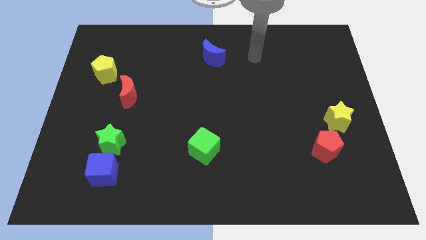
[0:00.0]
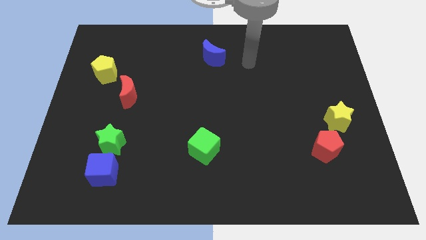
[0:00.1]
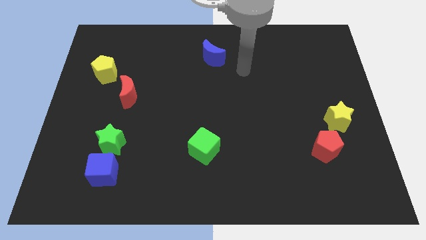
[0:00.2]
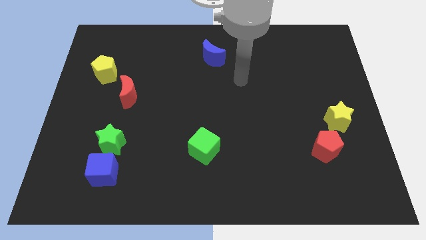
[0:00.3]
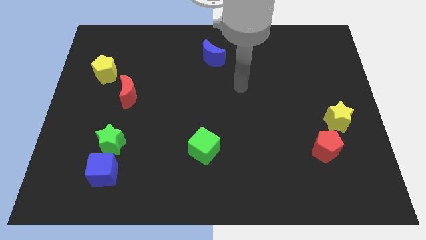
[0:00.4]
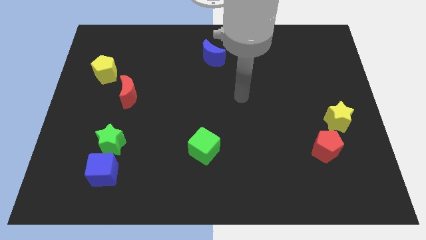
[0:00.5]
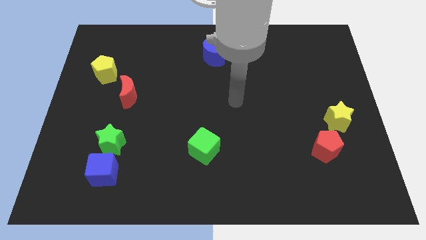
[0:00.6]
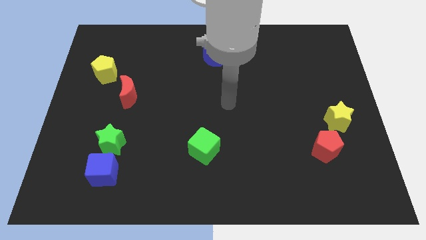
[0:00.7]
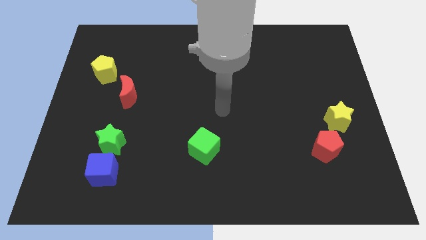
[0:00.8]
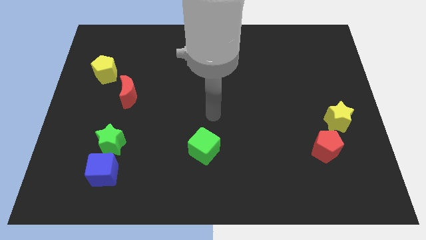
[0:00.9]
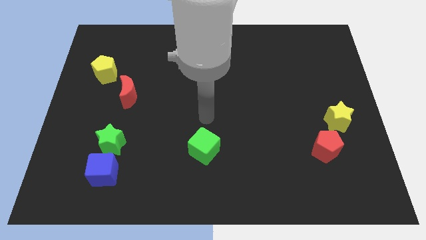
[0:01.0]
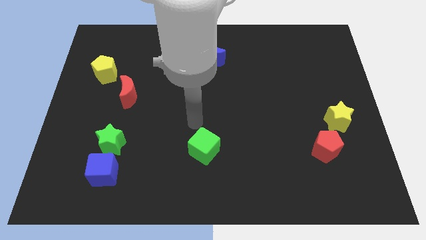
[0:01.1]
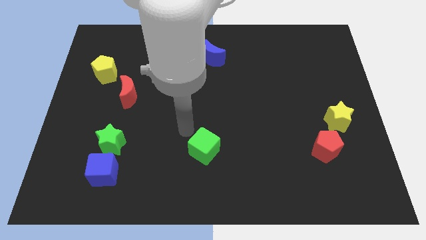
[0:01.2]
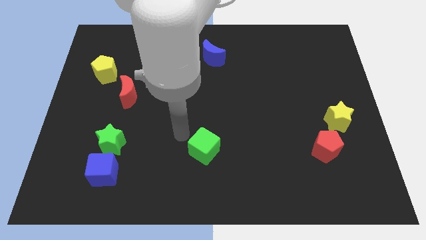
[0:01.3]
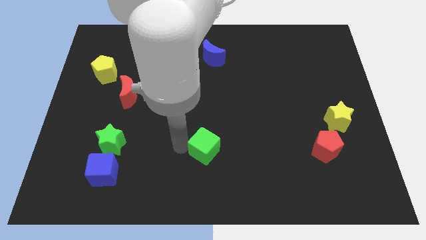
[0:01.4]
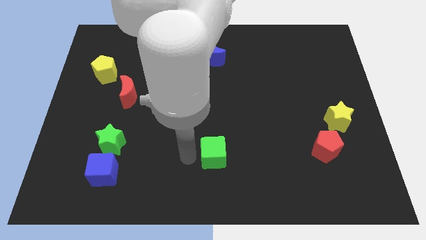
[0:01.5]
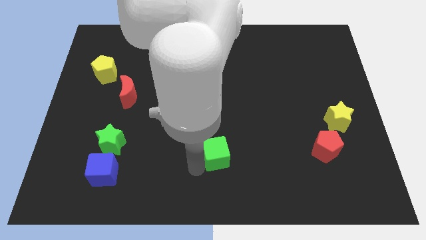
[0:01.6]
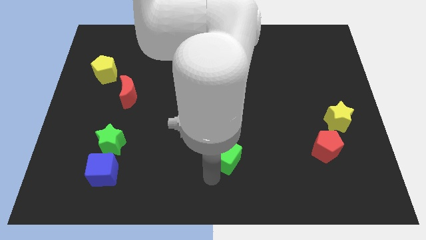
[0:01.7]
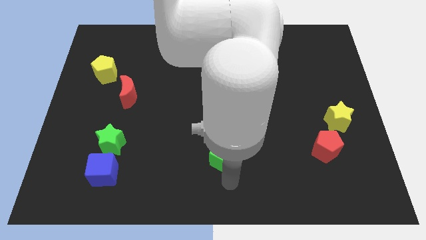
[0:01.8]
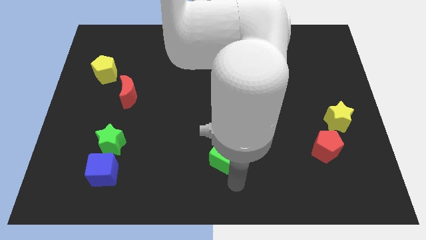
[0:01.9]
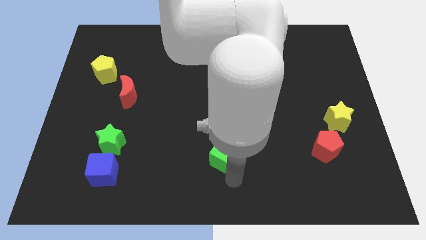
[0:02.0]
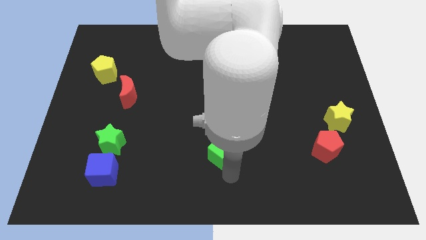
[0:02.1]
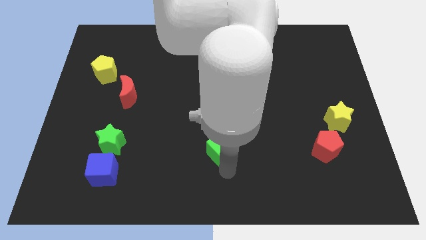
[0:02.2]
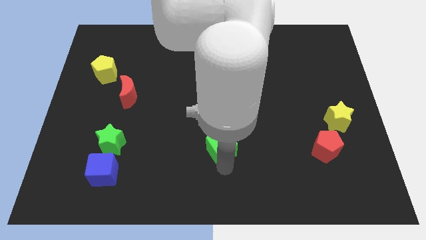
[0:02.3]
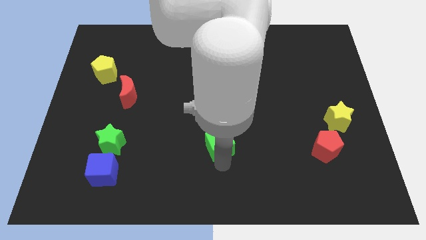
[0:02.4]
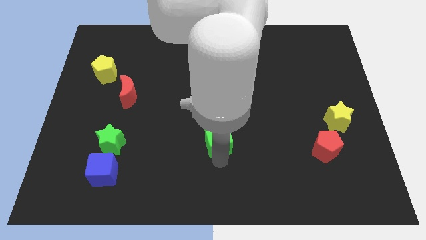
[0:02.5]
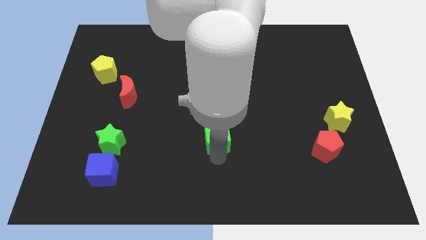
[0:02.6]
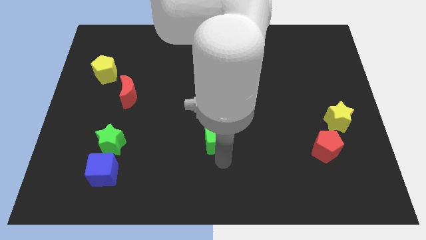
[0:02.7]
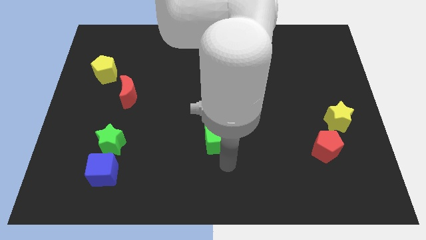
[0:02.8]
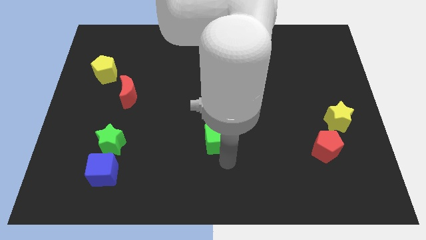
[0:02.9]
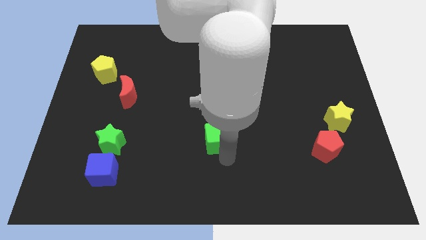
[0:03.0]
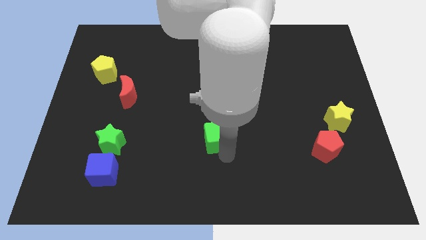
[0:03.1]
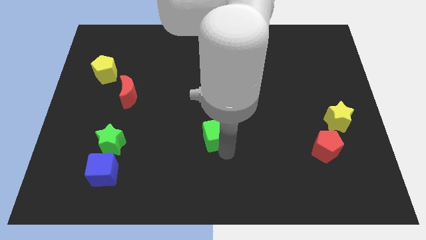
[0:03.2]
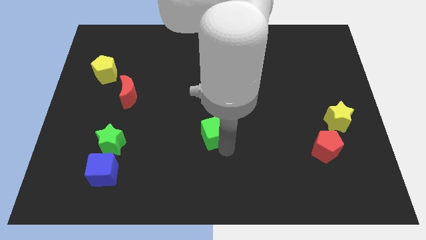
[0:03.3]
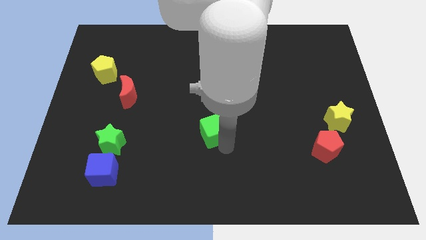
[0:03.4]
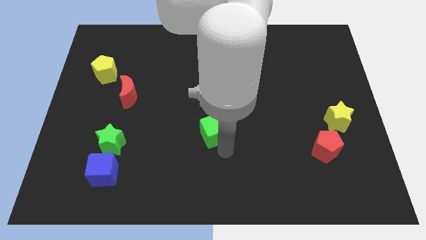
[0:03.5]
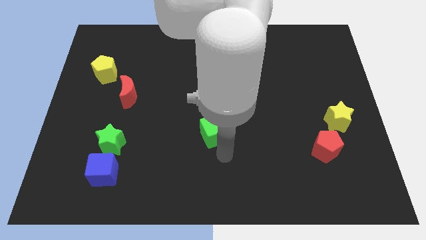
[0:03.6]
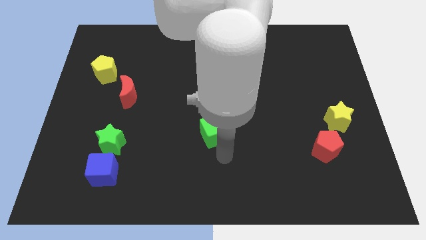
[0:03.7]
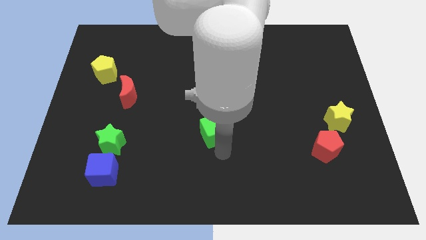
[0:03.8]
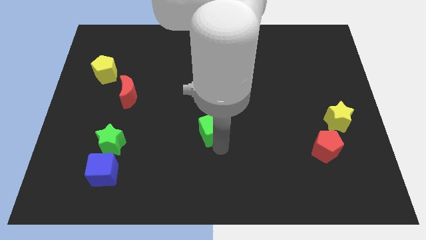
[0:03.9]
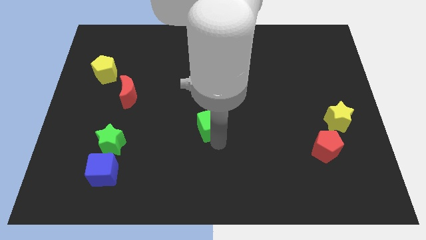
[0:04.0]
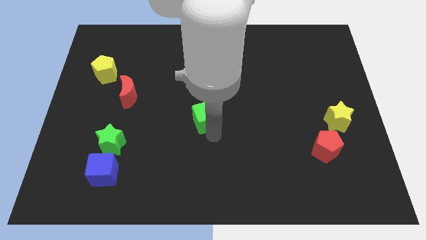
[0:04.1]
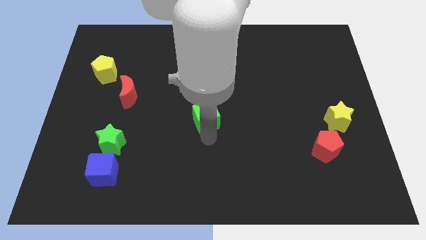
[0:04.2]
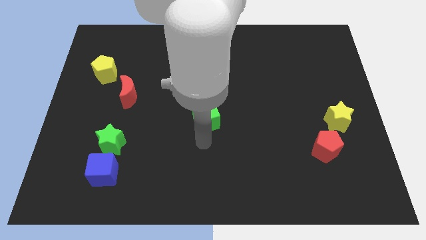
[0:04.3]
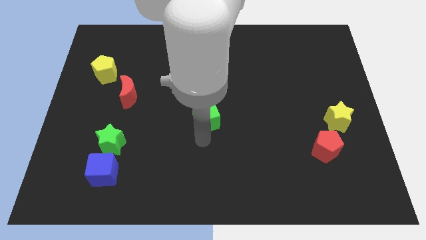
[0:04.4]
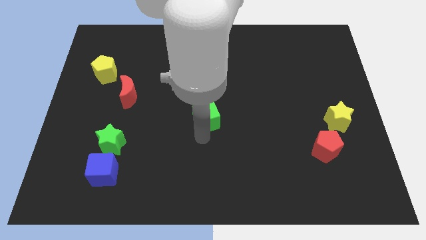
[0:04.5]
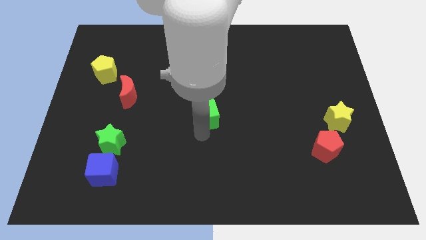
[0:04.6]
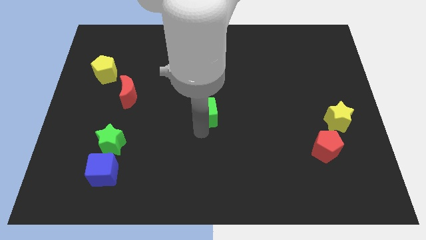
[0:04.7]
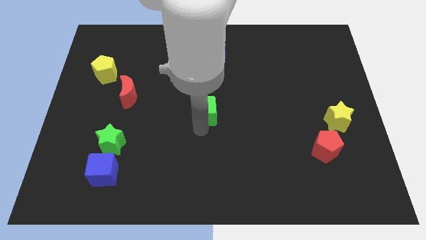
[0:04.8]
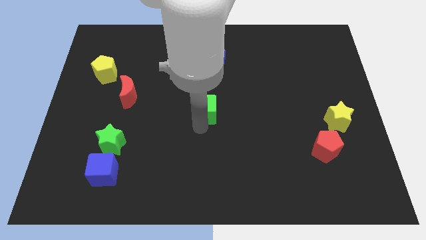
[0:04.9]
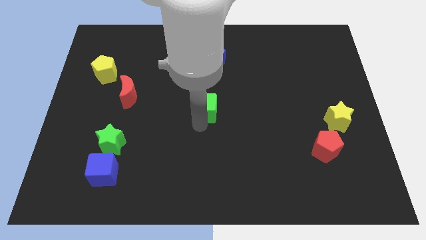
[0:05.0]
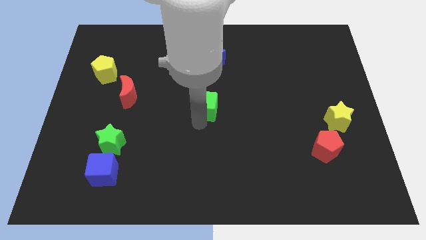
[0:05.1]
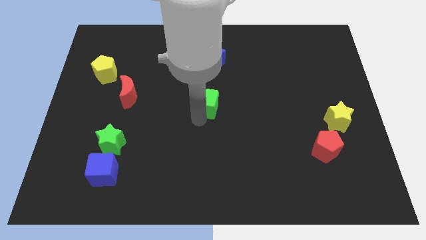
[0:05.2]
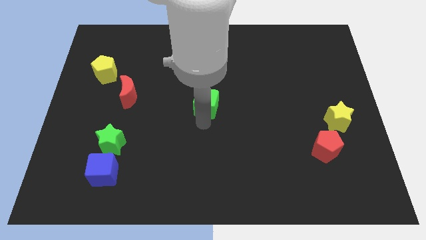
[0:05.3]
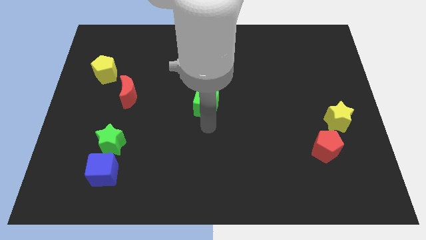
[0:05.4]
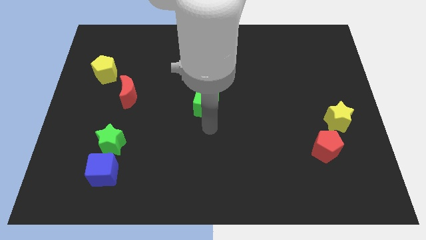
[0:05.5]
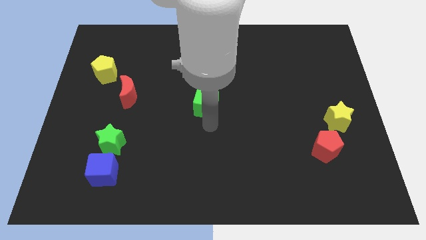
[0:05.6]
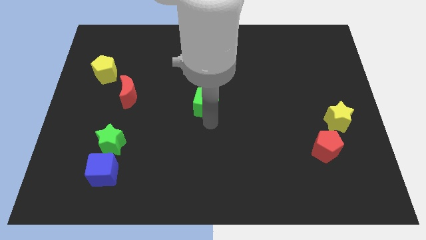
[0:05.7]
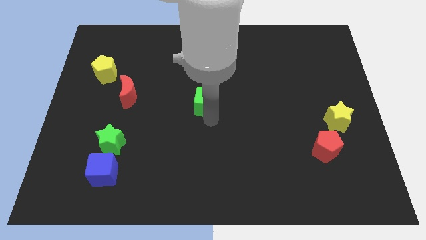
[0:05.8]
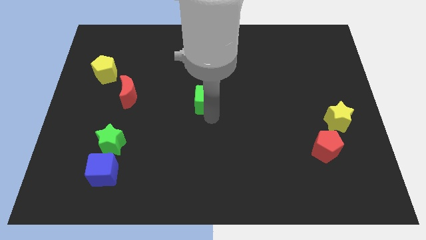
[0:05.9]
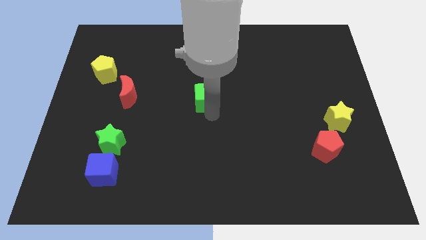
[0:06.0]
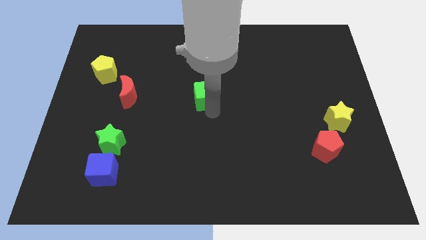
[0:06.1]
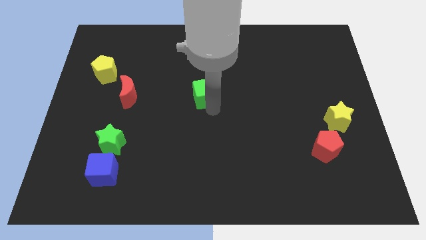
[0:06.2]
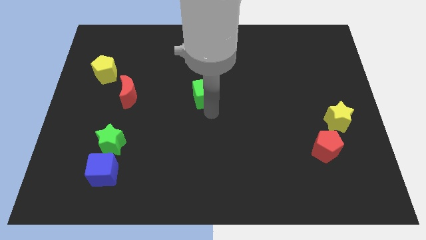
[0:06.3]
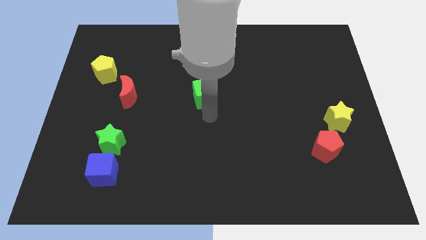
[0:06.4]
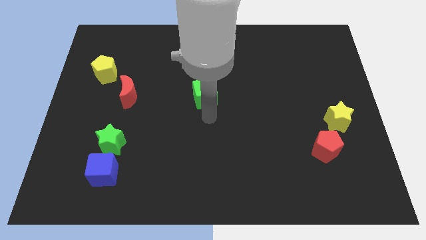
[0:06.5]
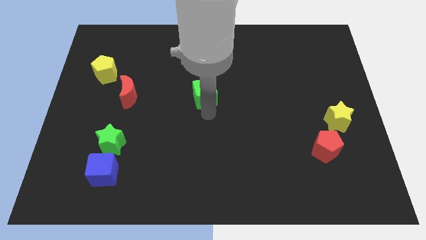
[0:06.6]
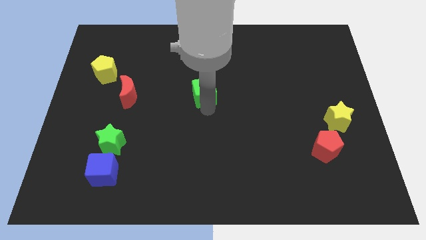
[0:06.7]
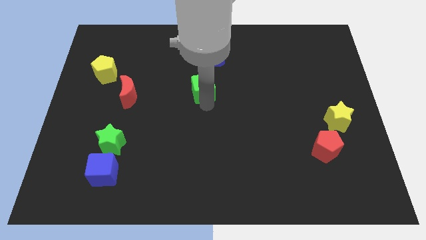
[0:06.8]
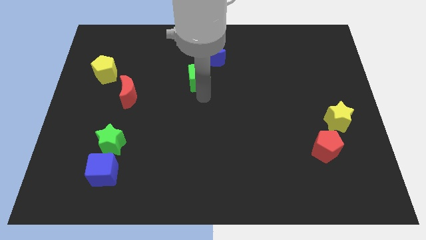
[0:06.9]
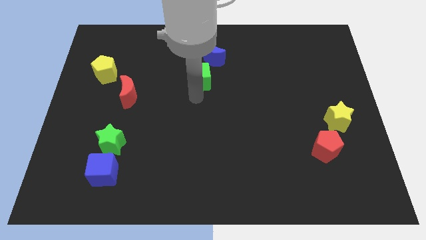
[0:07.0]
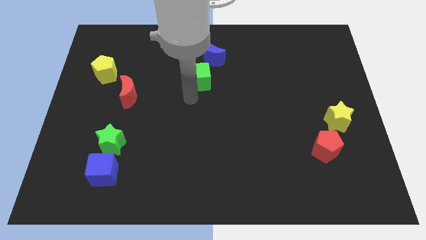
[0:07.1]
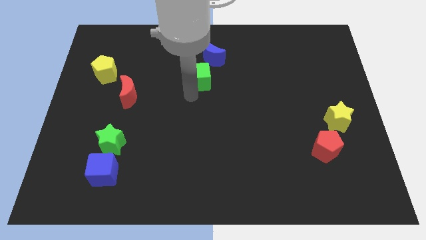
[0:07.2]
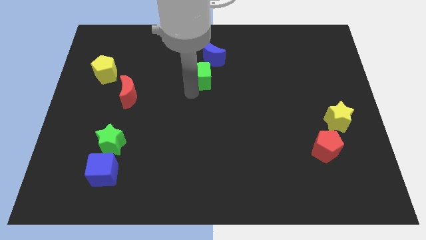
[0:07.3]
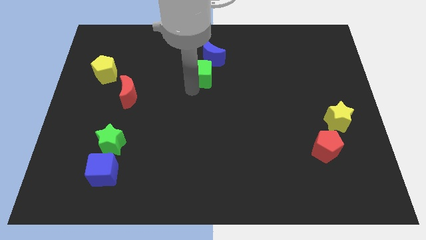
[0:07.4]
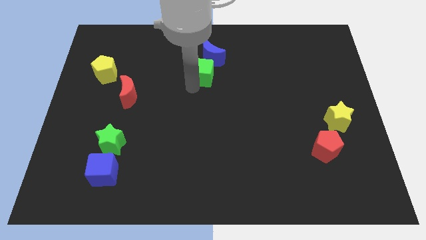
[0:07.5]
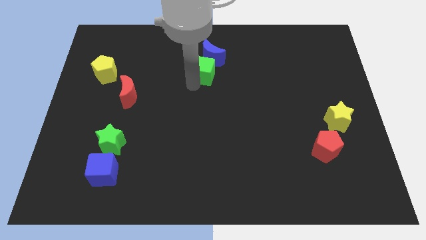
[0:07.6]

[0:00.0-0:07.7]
move the green cube to the blue moon
